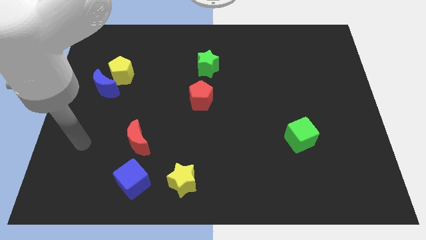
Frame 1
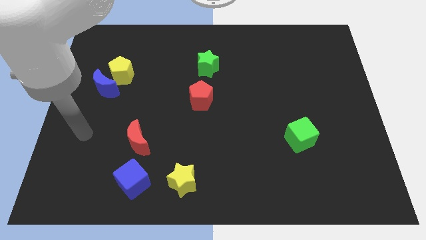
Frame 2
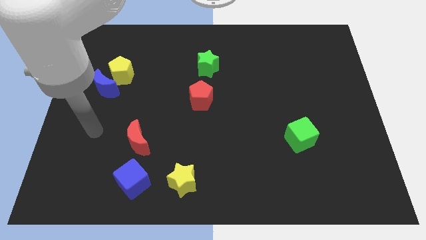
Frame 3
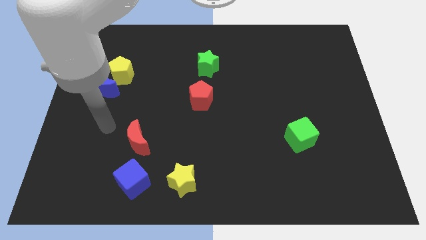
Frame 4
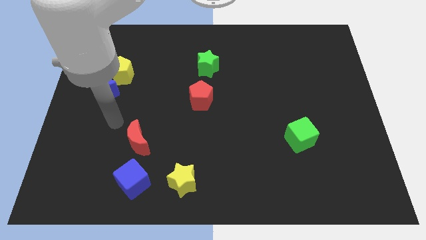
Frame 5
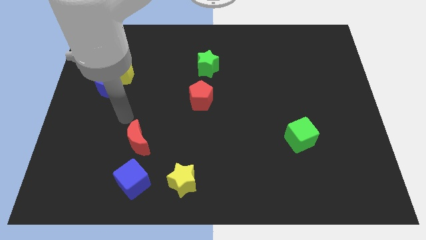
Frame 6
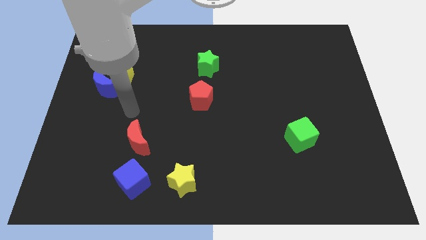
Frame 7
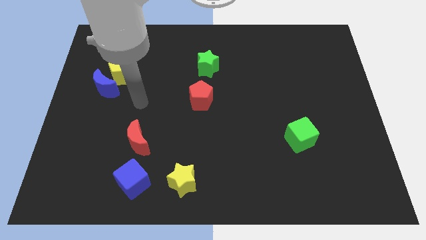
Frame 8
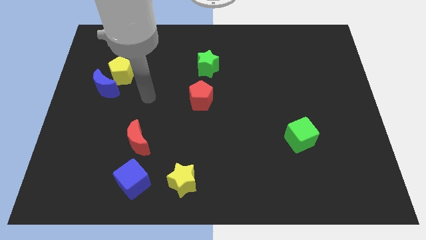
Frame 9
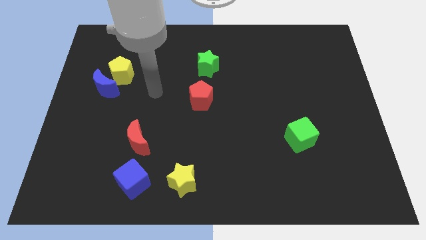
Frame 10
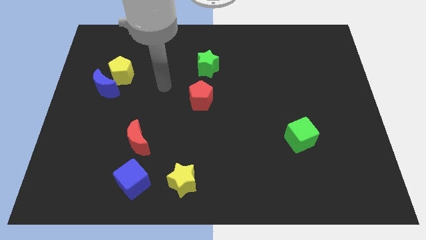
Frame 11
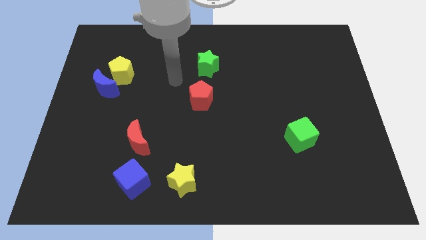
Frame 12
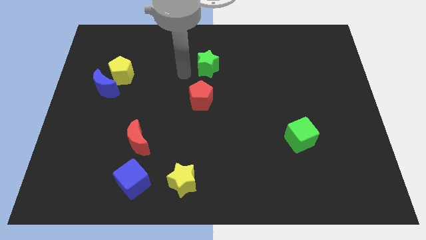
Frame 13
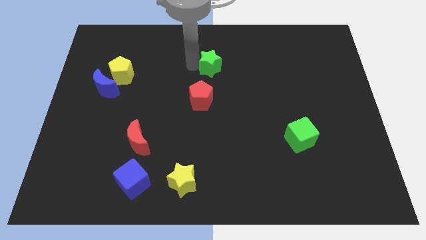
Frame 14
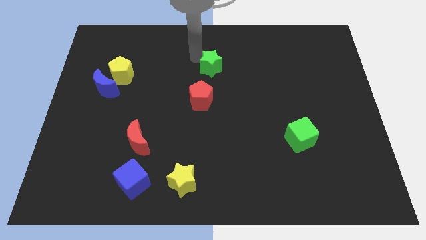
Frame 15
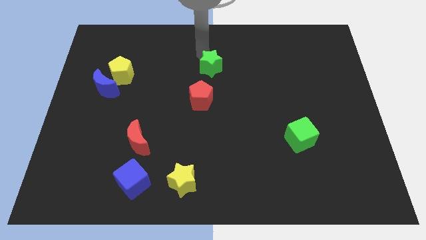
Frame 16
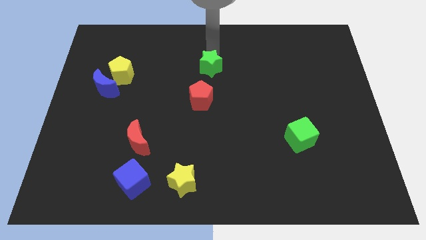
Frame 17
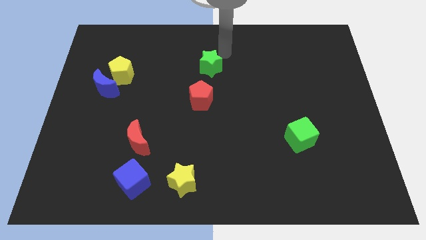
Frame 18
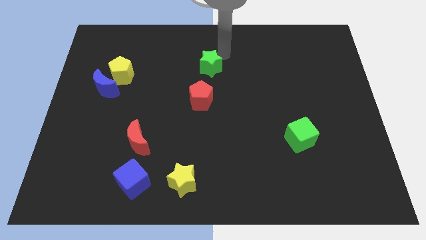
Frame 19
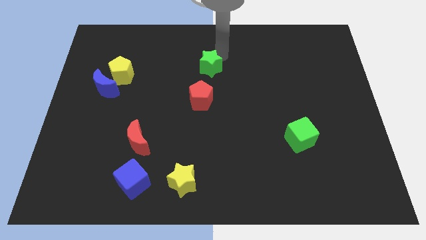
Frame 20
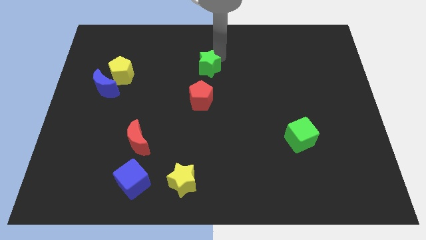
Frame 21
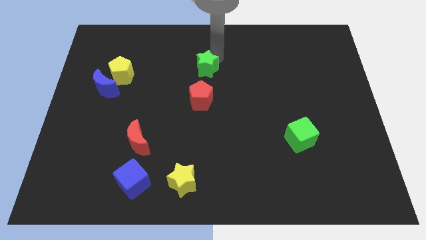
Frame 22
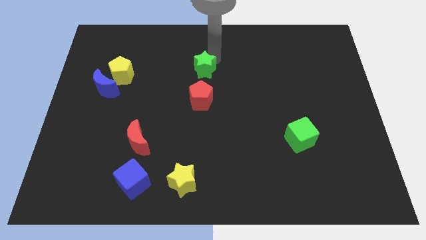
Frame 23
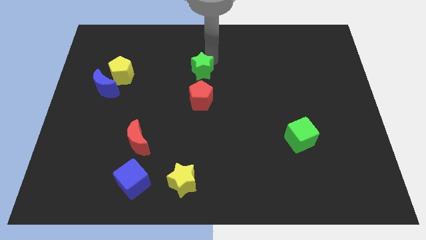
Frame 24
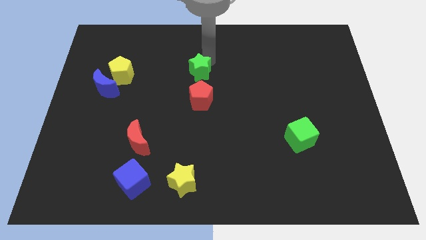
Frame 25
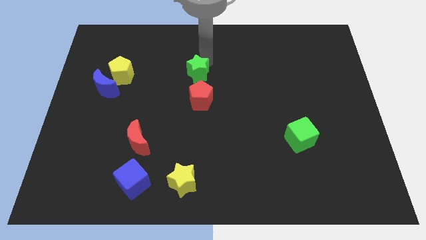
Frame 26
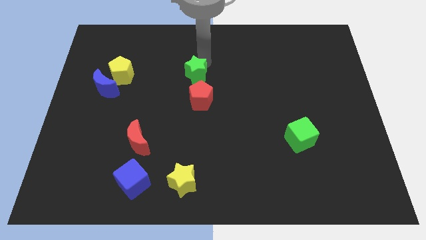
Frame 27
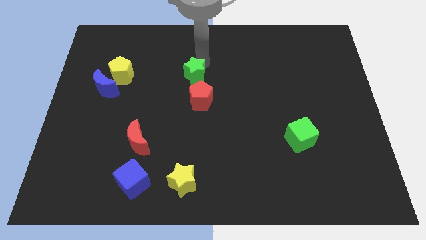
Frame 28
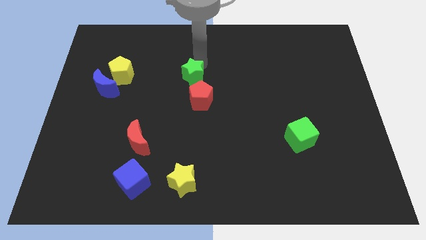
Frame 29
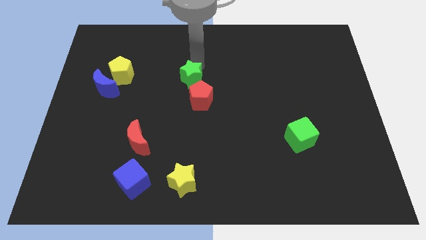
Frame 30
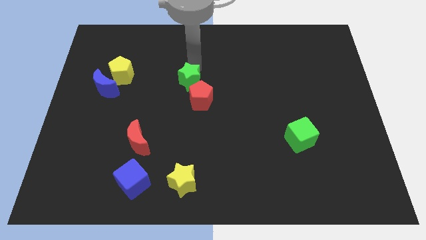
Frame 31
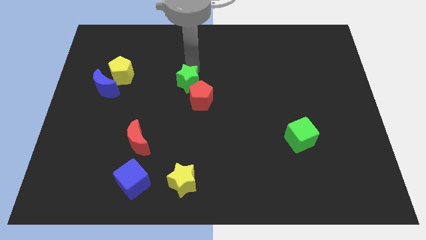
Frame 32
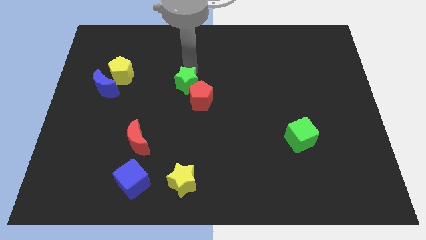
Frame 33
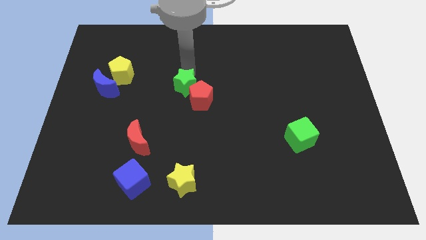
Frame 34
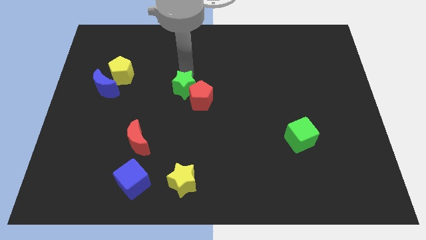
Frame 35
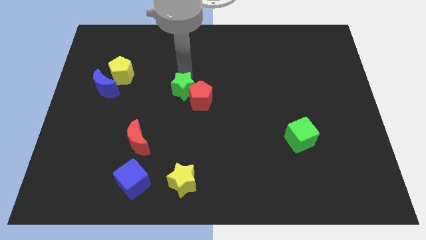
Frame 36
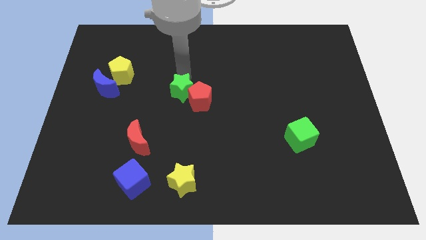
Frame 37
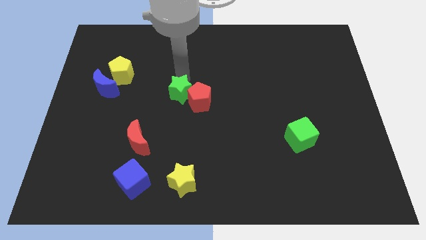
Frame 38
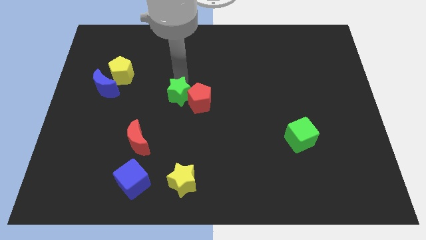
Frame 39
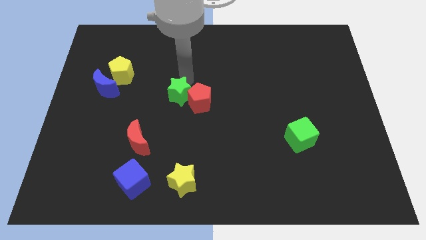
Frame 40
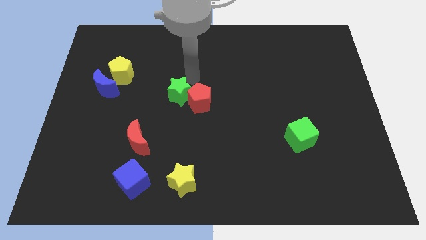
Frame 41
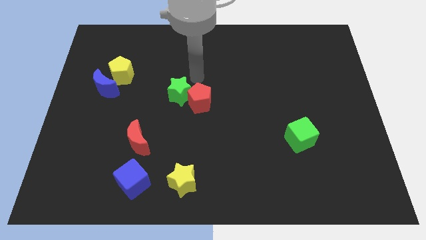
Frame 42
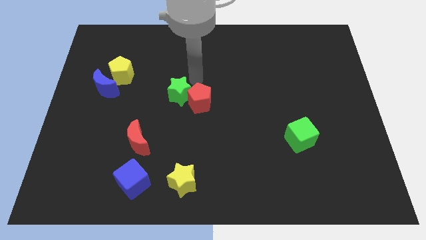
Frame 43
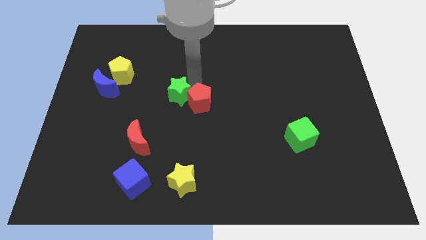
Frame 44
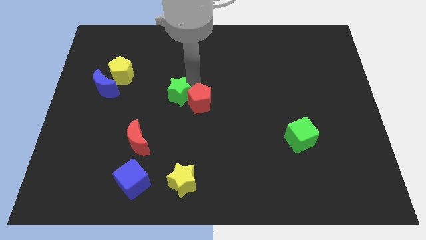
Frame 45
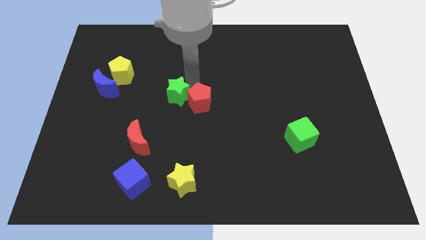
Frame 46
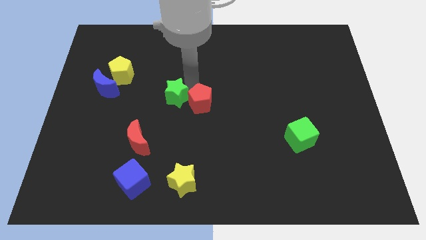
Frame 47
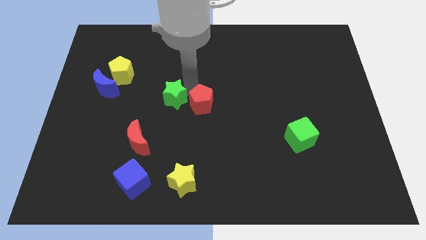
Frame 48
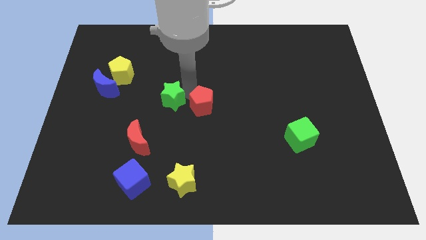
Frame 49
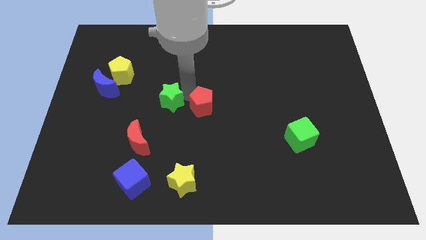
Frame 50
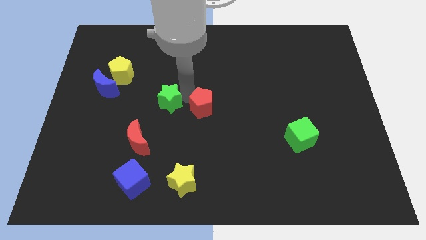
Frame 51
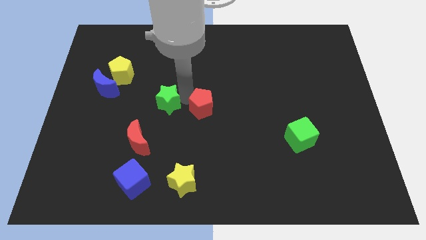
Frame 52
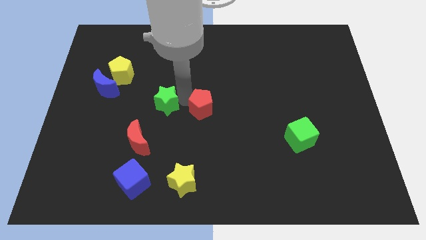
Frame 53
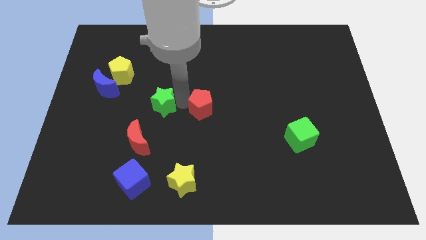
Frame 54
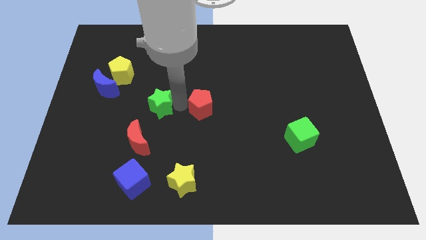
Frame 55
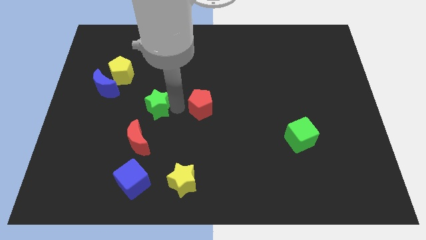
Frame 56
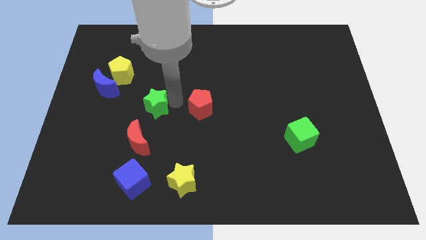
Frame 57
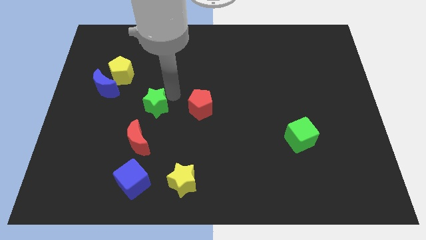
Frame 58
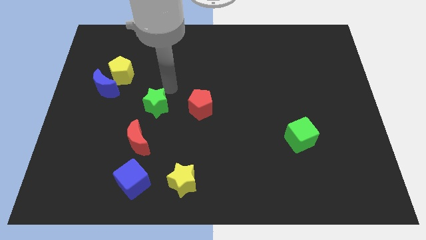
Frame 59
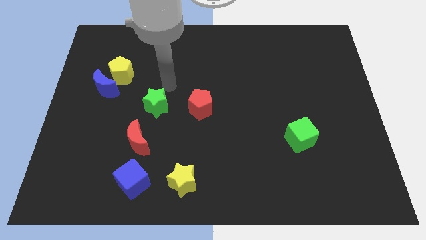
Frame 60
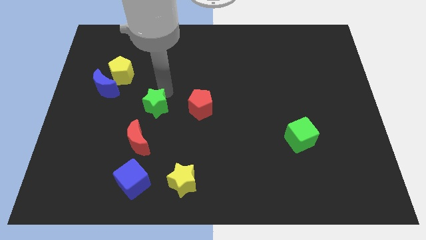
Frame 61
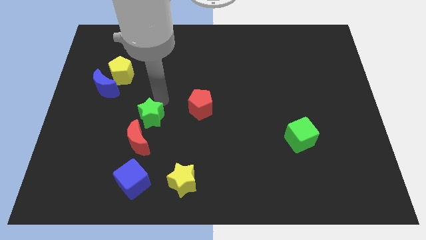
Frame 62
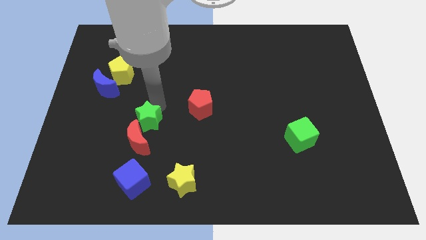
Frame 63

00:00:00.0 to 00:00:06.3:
push the green star next to the red moon
